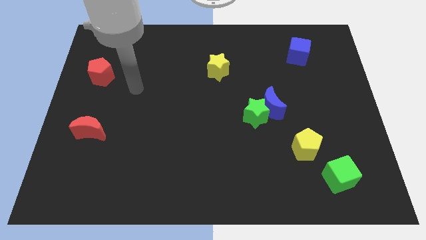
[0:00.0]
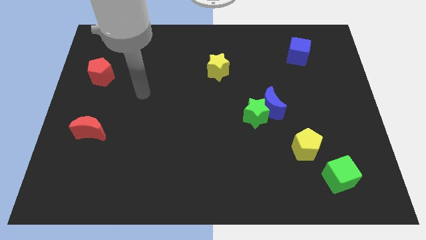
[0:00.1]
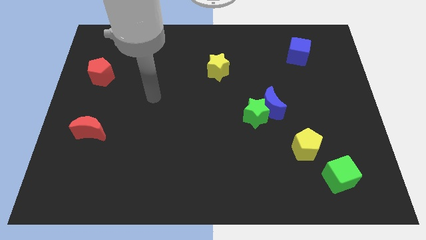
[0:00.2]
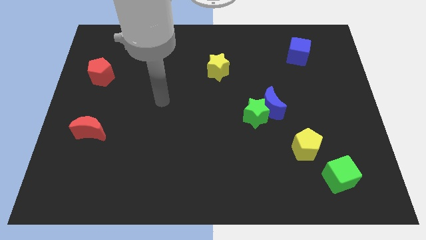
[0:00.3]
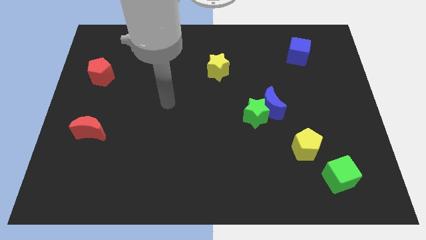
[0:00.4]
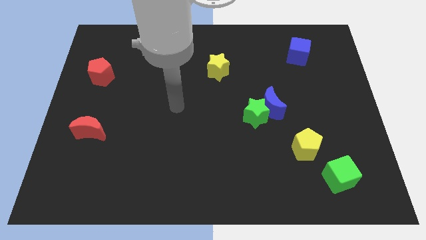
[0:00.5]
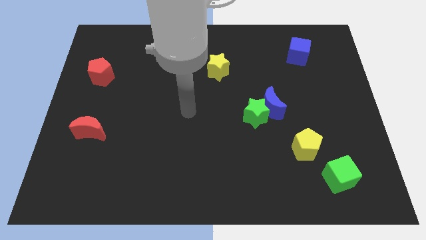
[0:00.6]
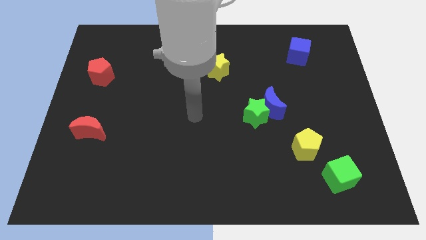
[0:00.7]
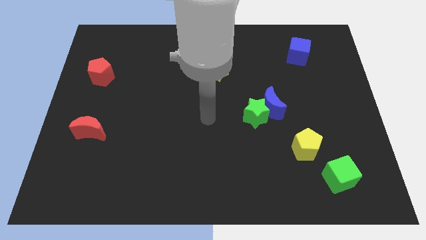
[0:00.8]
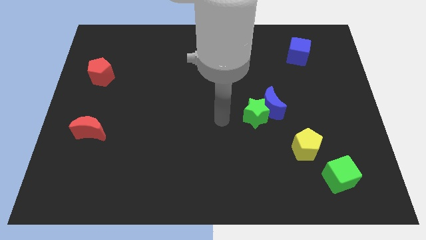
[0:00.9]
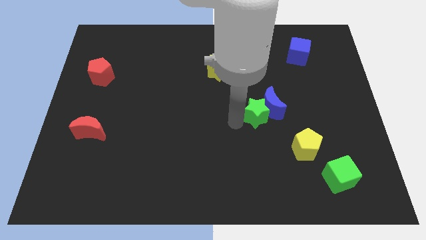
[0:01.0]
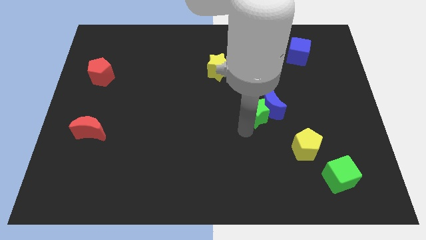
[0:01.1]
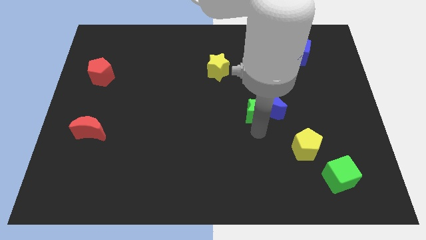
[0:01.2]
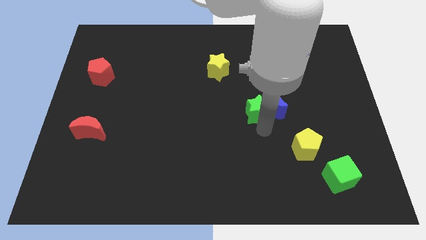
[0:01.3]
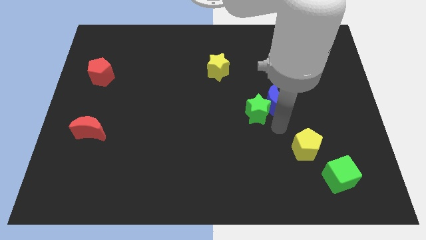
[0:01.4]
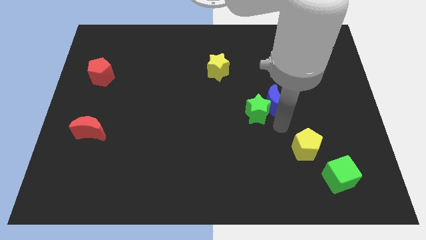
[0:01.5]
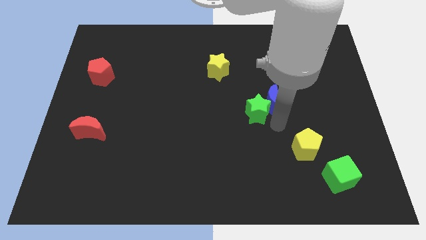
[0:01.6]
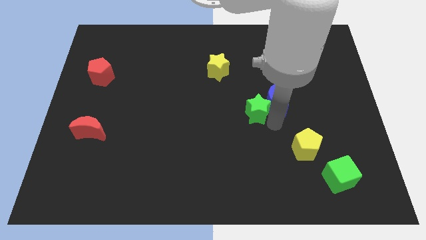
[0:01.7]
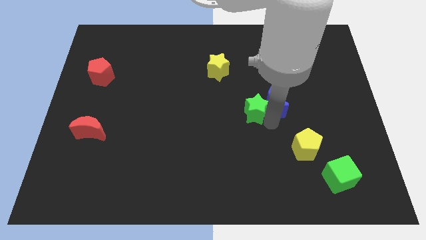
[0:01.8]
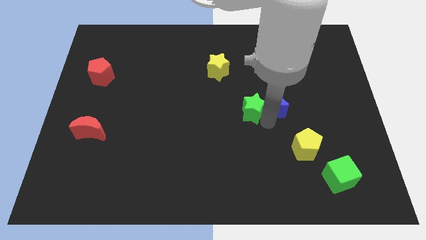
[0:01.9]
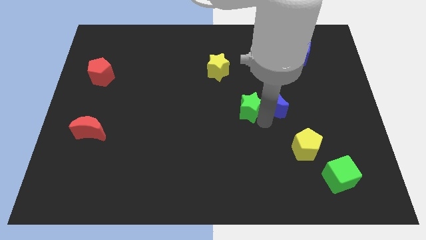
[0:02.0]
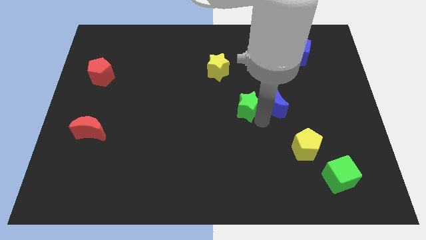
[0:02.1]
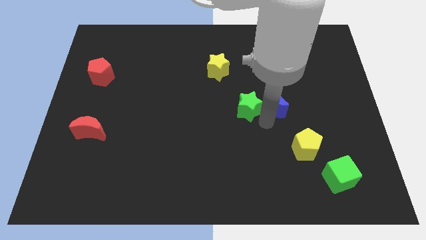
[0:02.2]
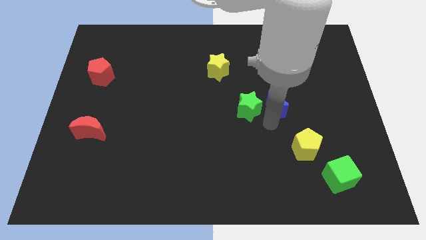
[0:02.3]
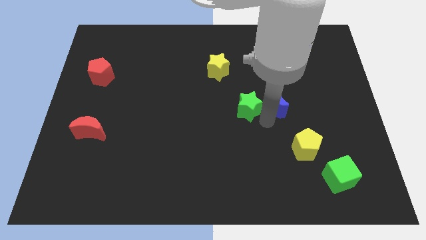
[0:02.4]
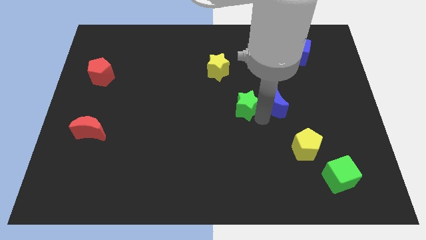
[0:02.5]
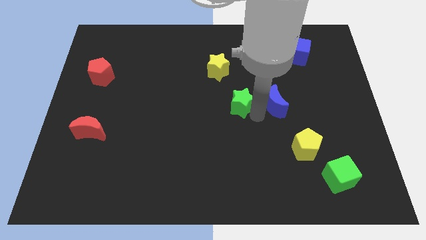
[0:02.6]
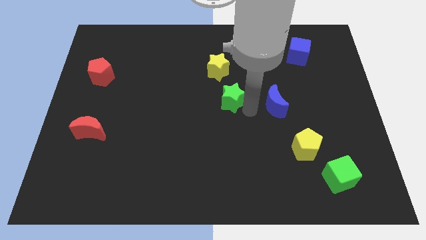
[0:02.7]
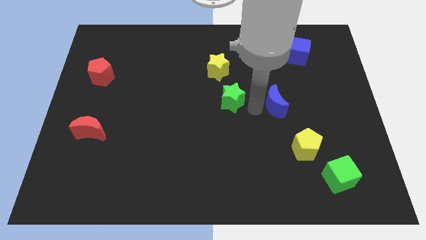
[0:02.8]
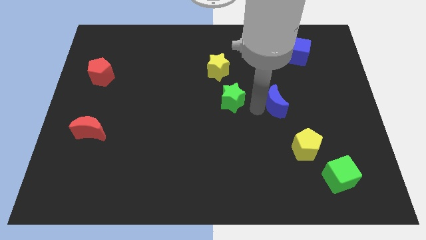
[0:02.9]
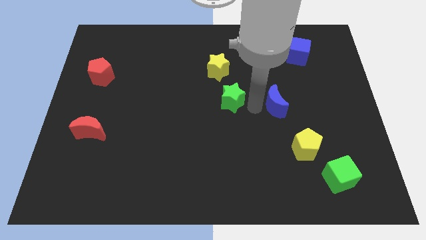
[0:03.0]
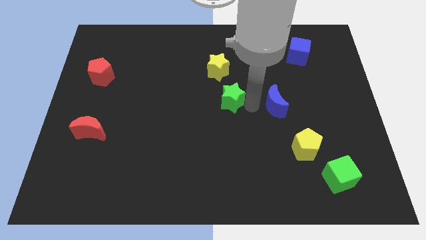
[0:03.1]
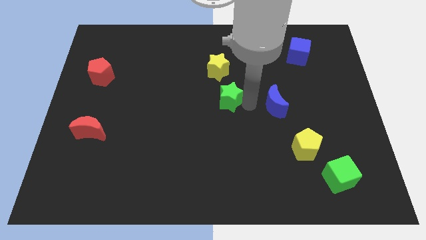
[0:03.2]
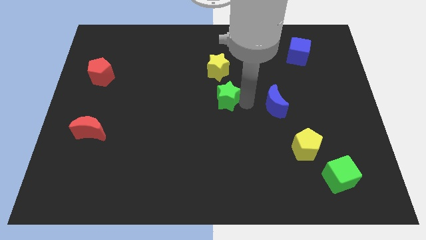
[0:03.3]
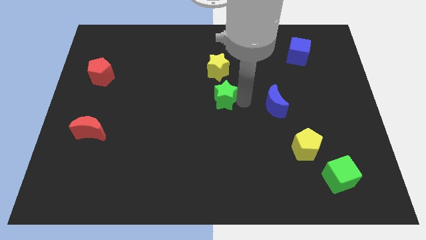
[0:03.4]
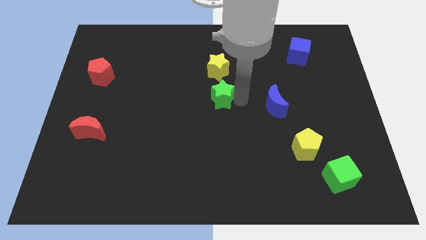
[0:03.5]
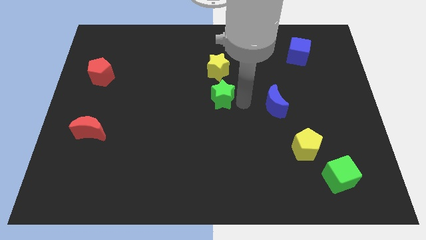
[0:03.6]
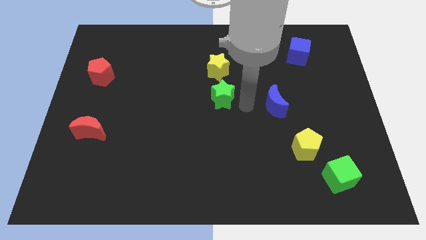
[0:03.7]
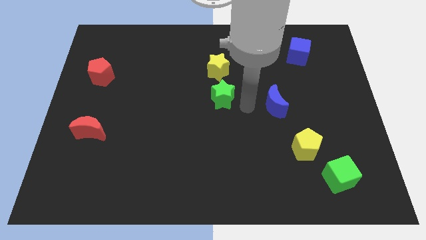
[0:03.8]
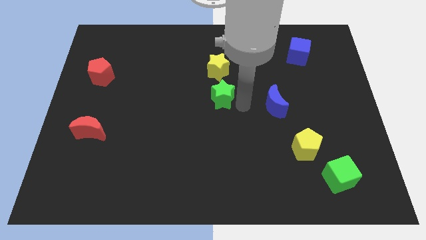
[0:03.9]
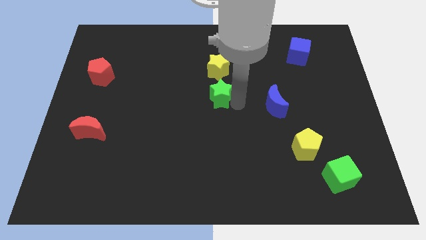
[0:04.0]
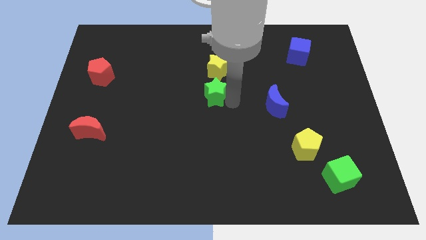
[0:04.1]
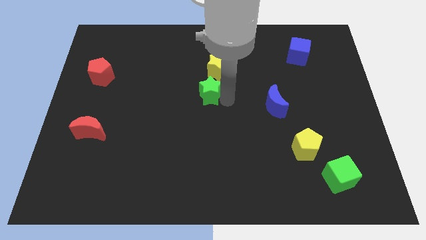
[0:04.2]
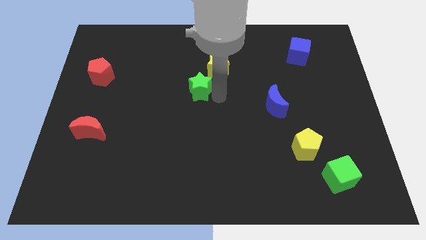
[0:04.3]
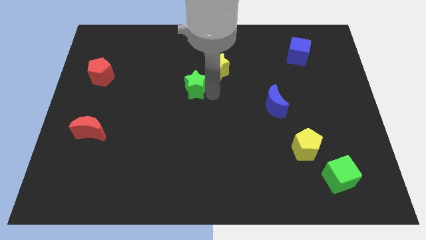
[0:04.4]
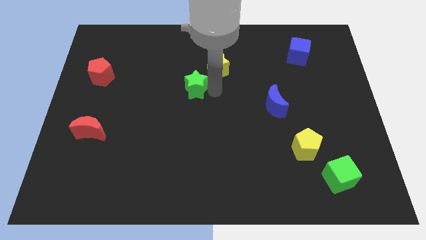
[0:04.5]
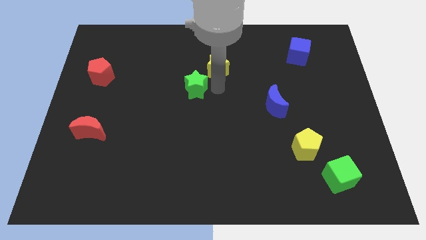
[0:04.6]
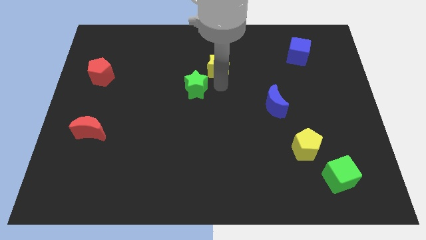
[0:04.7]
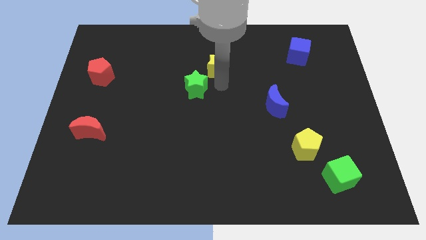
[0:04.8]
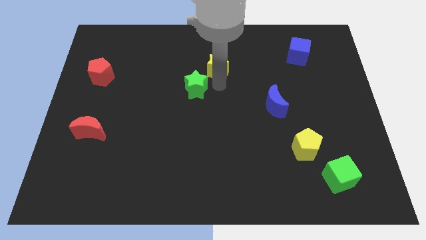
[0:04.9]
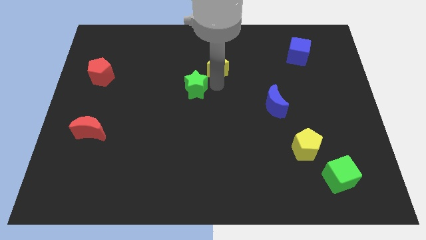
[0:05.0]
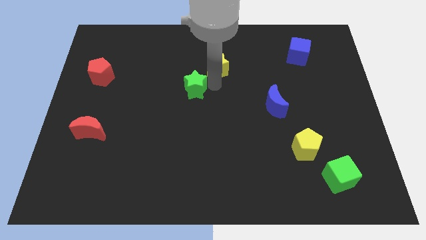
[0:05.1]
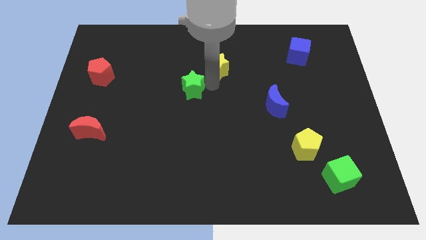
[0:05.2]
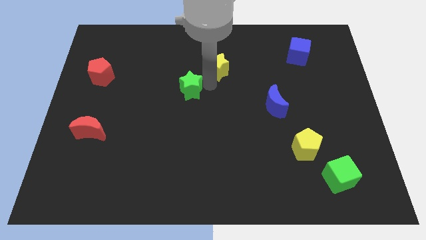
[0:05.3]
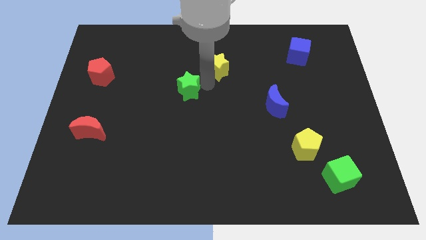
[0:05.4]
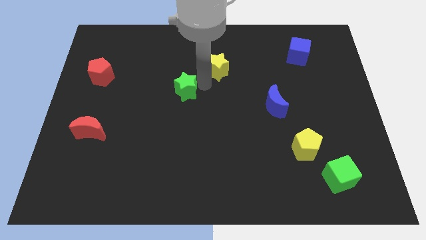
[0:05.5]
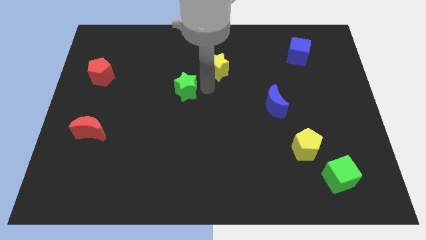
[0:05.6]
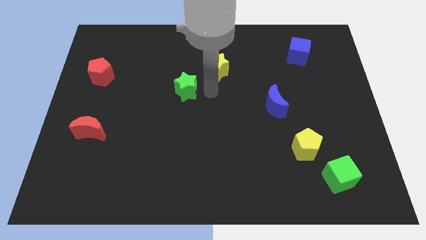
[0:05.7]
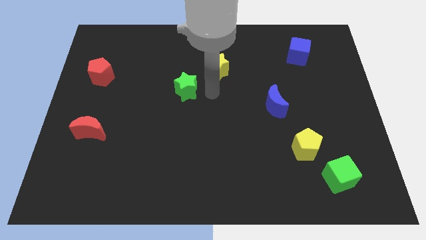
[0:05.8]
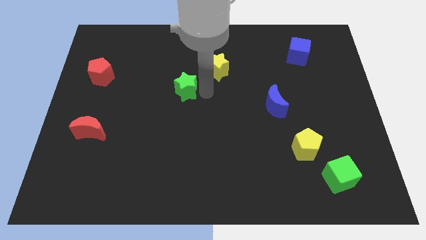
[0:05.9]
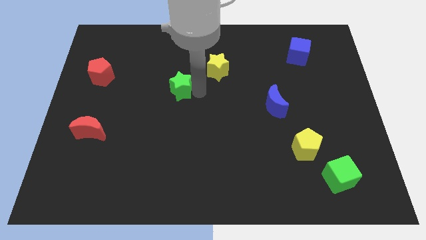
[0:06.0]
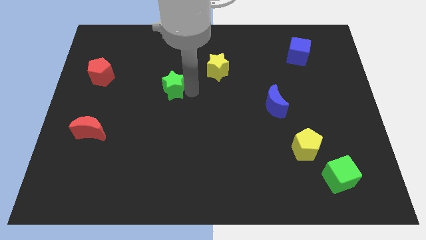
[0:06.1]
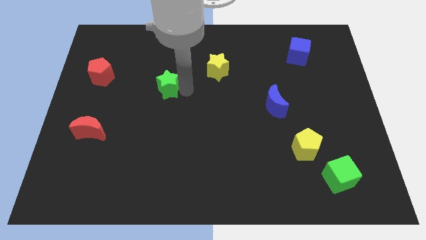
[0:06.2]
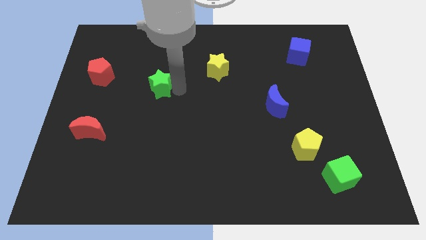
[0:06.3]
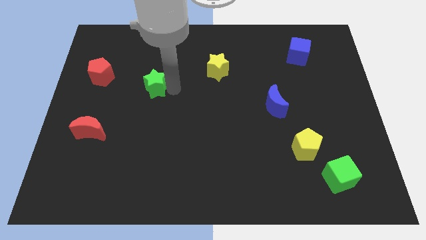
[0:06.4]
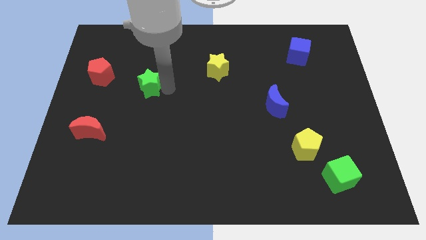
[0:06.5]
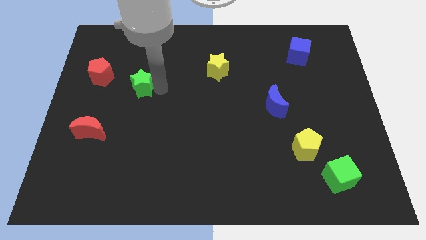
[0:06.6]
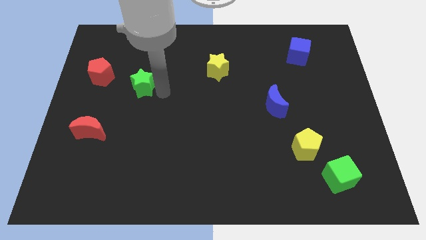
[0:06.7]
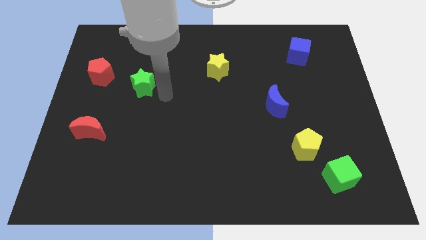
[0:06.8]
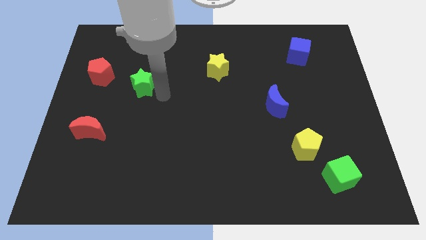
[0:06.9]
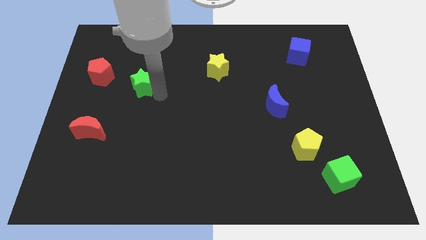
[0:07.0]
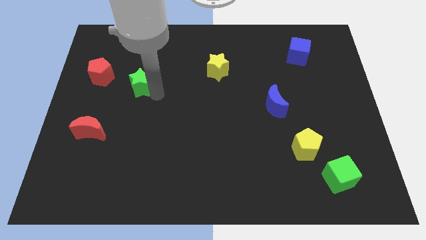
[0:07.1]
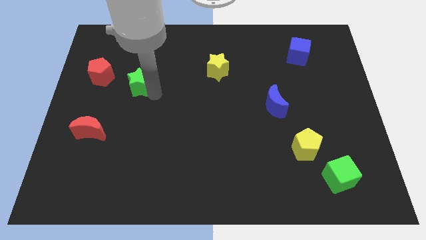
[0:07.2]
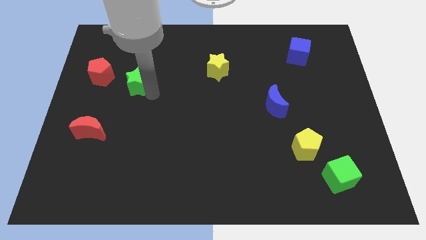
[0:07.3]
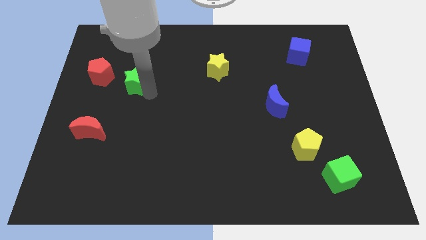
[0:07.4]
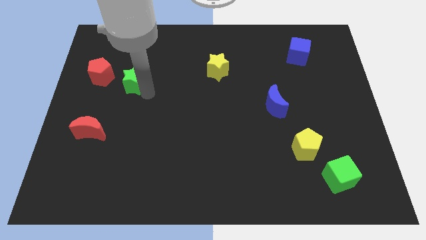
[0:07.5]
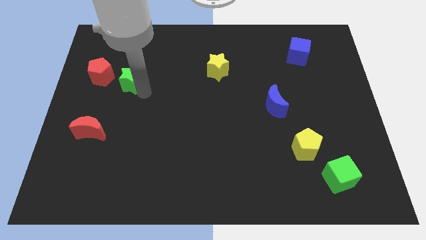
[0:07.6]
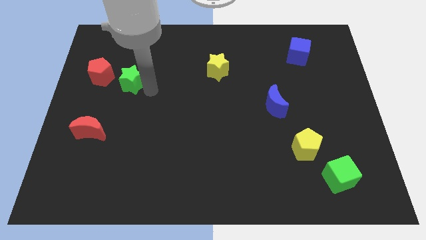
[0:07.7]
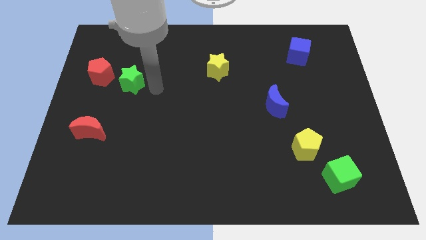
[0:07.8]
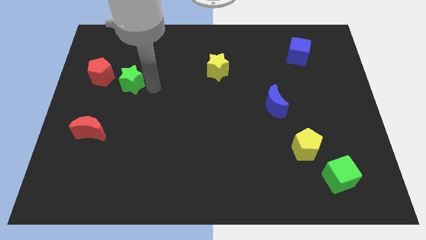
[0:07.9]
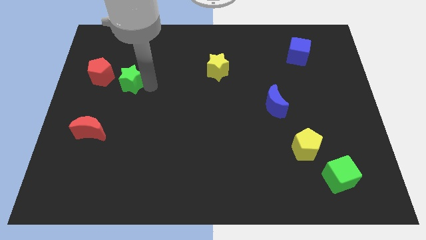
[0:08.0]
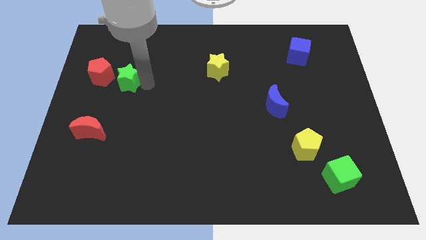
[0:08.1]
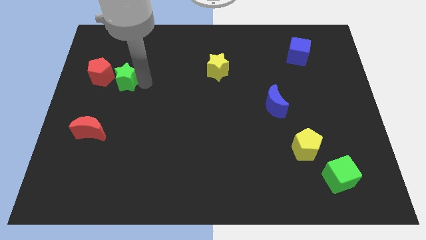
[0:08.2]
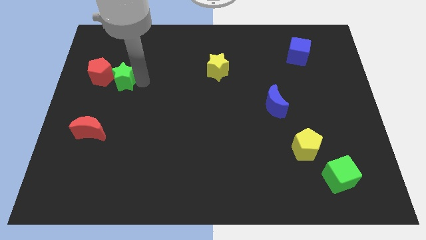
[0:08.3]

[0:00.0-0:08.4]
push the green star close to the red pentagon
